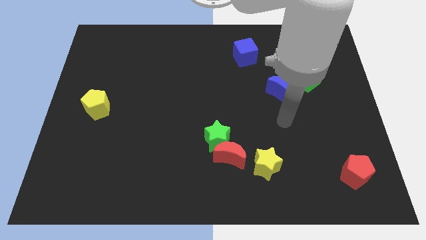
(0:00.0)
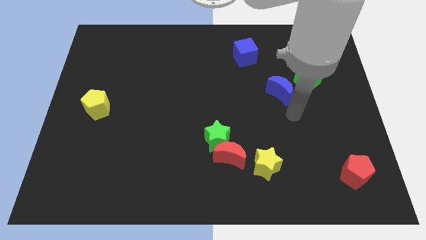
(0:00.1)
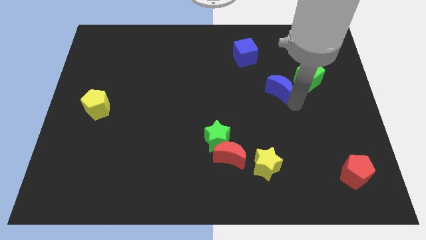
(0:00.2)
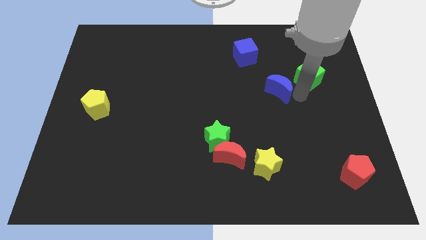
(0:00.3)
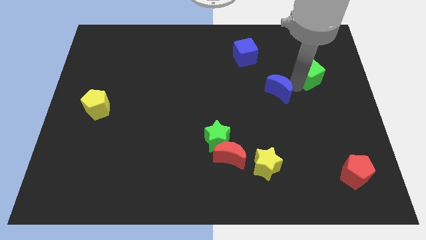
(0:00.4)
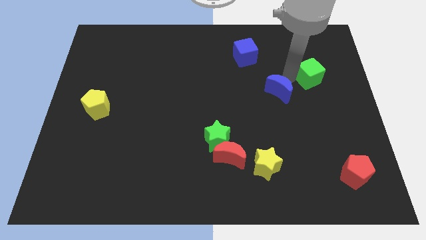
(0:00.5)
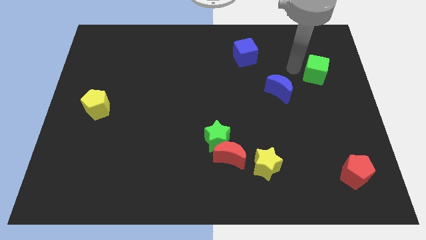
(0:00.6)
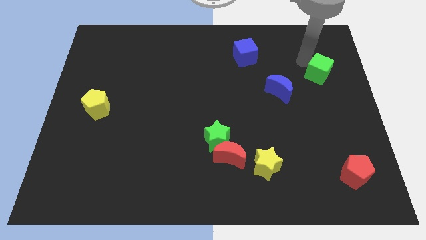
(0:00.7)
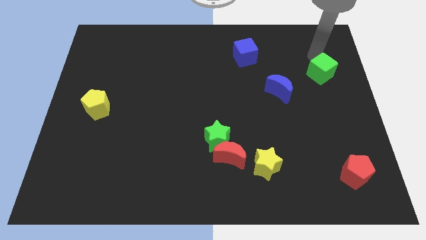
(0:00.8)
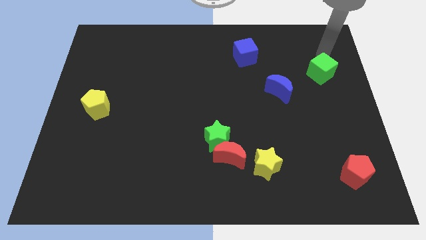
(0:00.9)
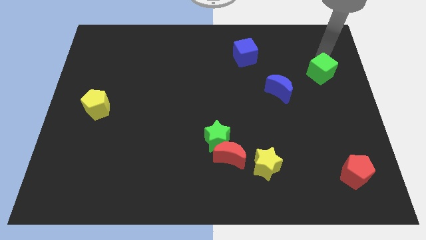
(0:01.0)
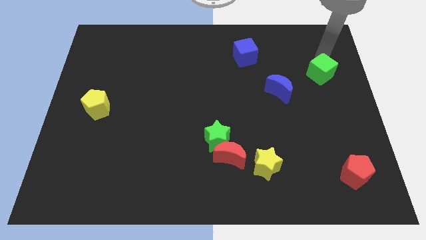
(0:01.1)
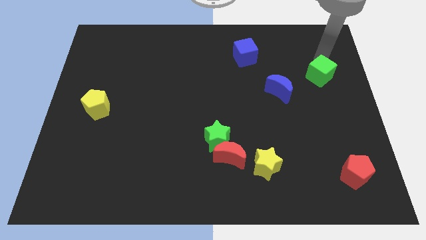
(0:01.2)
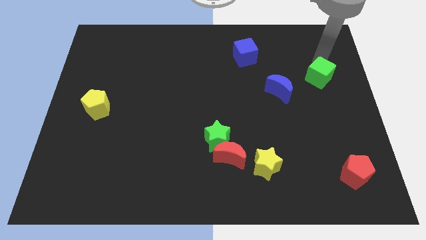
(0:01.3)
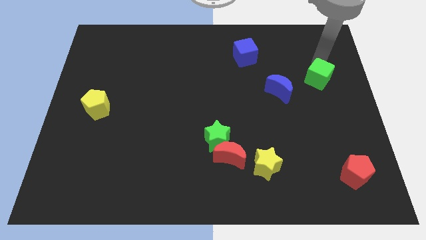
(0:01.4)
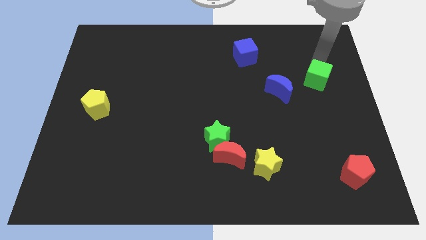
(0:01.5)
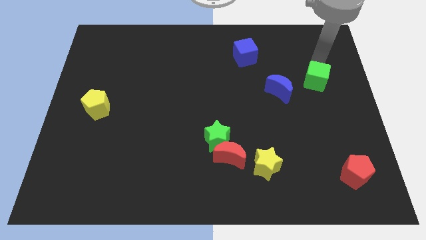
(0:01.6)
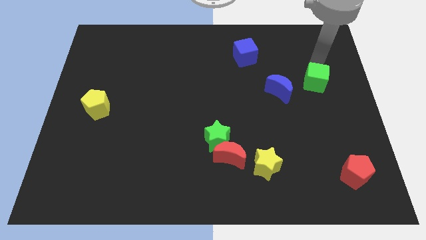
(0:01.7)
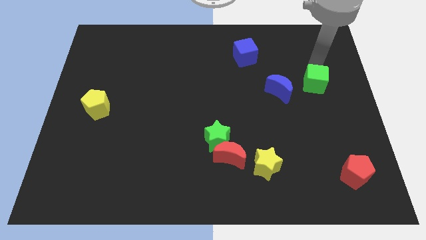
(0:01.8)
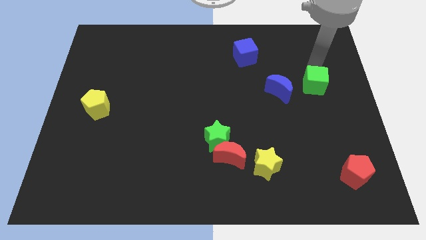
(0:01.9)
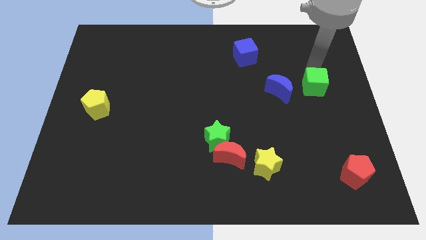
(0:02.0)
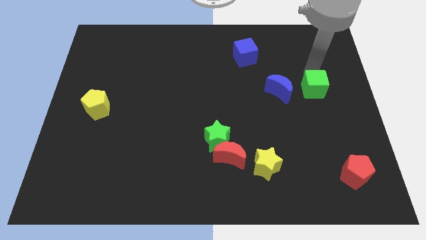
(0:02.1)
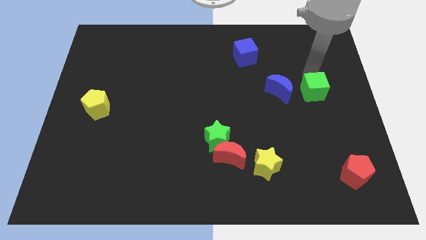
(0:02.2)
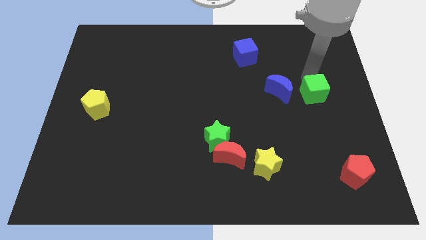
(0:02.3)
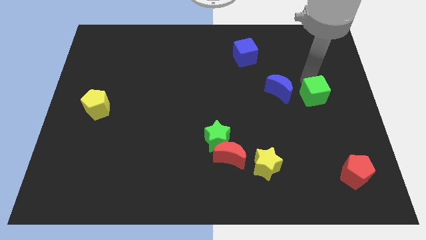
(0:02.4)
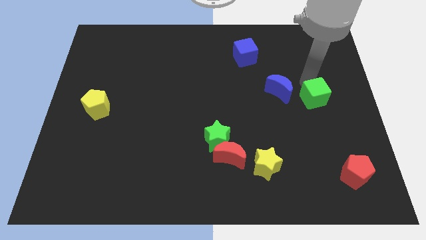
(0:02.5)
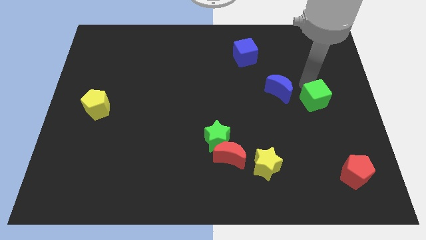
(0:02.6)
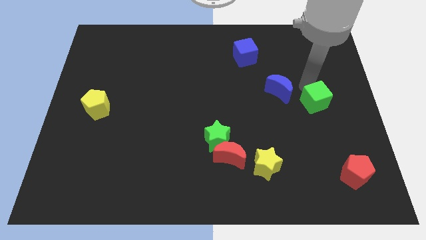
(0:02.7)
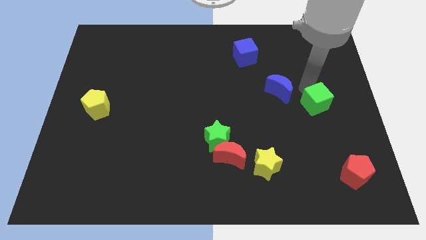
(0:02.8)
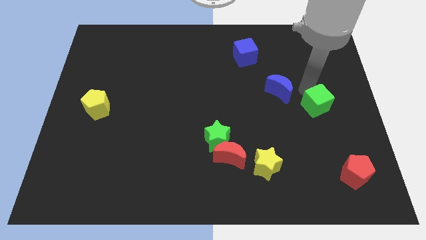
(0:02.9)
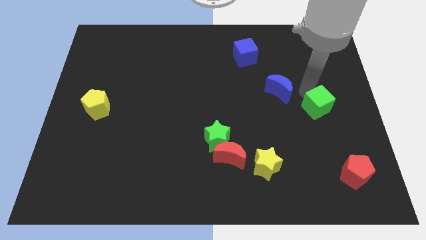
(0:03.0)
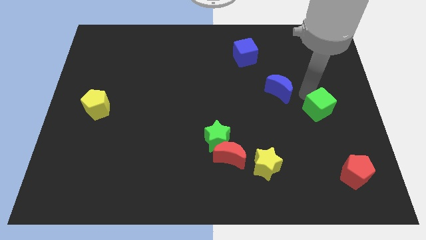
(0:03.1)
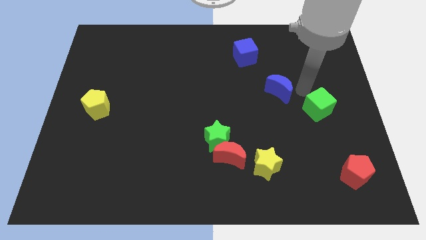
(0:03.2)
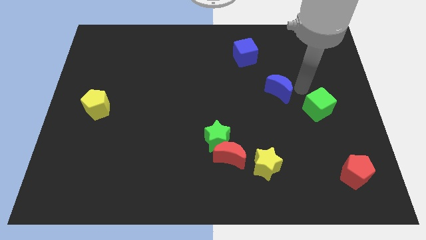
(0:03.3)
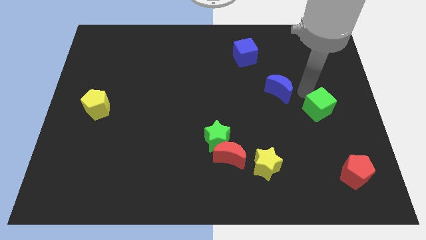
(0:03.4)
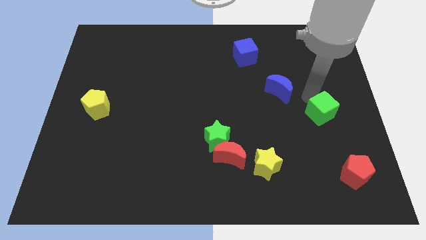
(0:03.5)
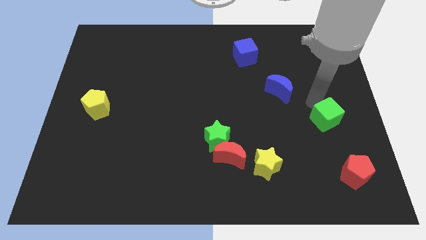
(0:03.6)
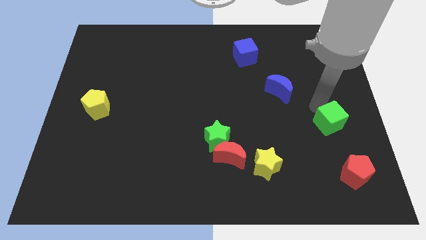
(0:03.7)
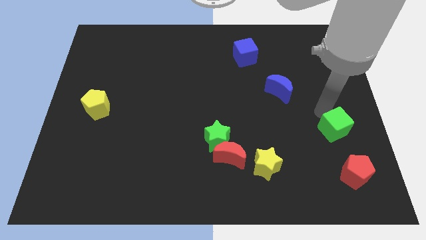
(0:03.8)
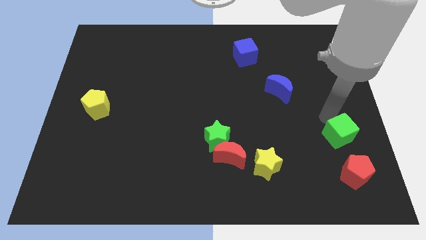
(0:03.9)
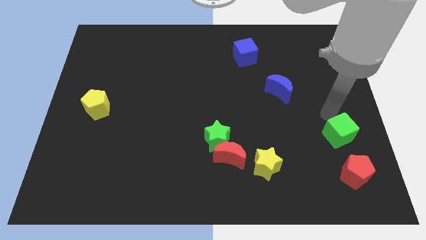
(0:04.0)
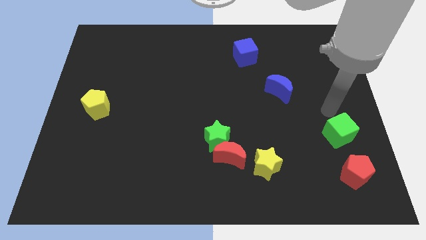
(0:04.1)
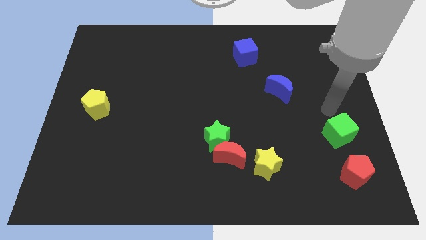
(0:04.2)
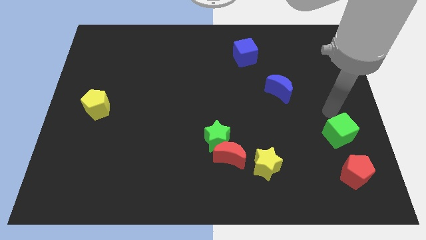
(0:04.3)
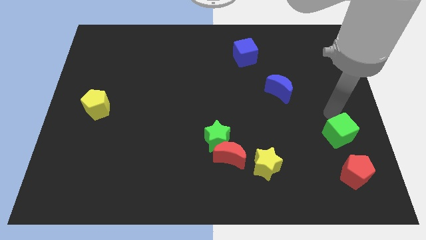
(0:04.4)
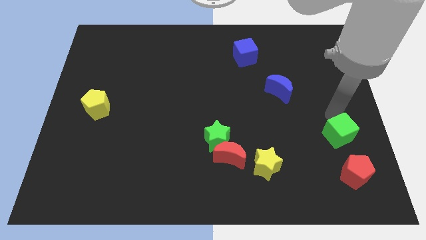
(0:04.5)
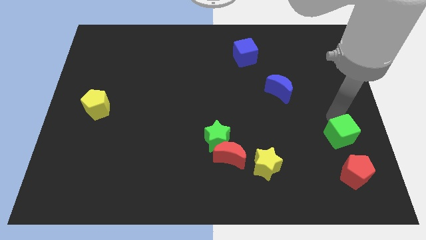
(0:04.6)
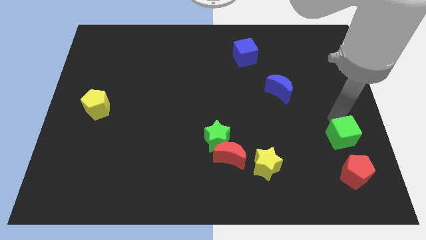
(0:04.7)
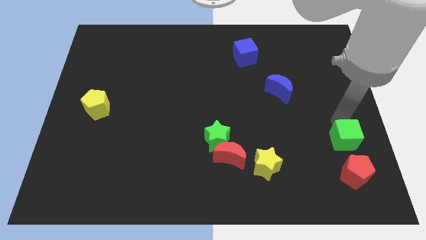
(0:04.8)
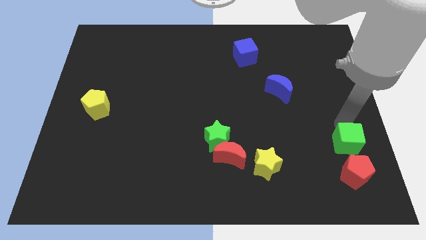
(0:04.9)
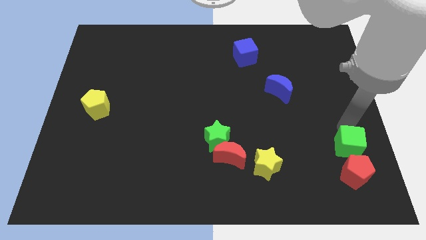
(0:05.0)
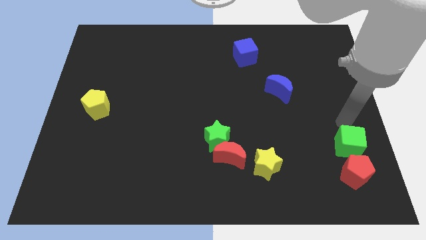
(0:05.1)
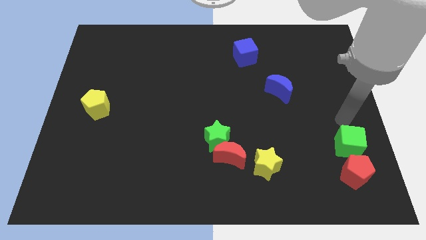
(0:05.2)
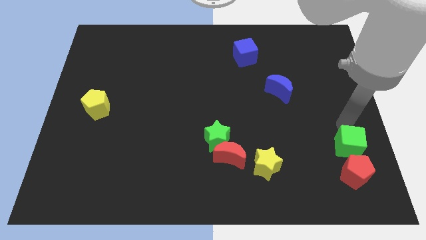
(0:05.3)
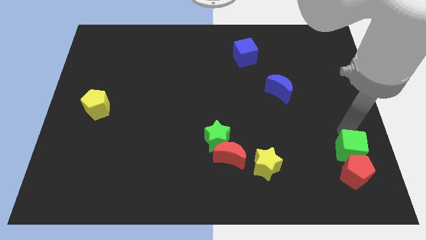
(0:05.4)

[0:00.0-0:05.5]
move the green cube close to the red pentagon

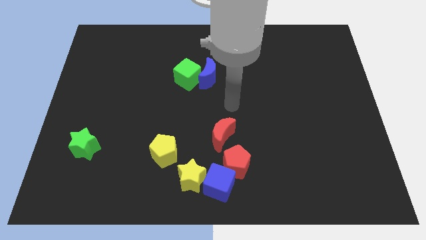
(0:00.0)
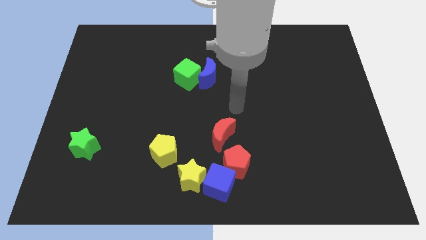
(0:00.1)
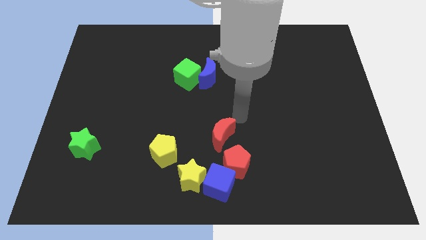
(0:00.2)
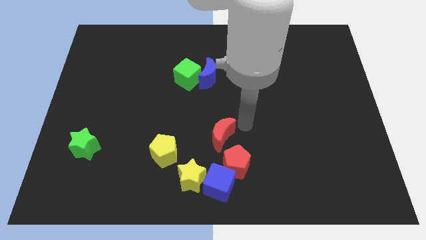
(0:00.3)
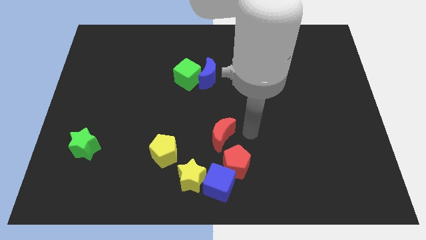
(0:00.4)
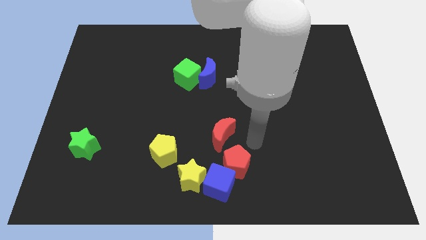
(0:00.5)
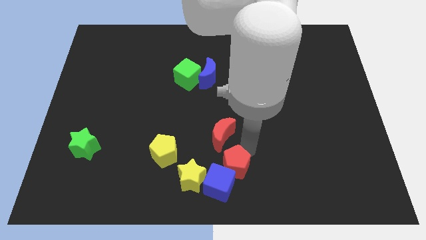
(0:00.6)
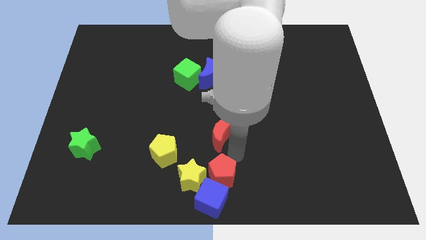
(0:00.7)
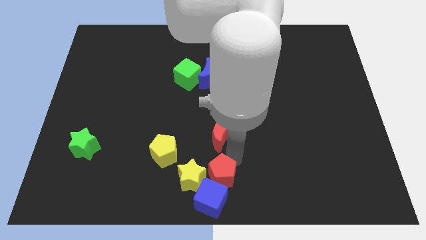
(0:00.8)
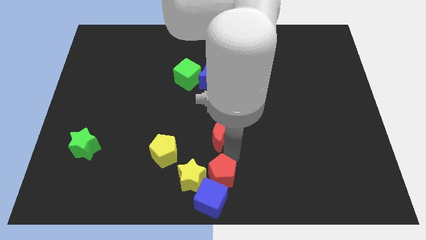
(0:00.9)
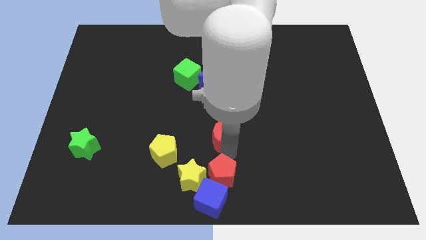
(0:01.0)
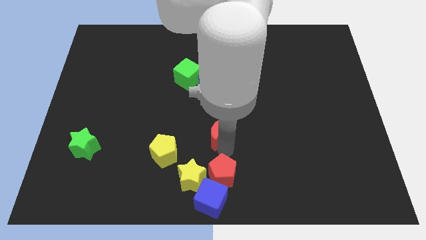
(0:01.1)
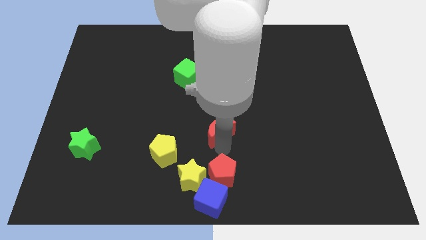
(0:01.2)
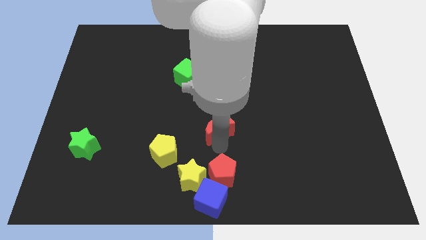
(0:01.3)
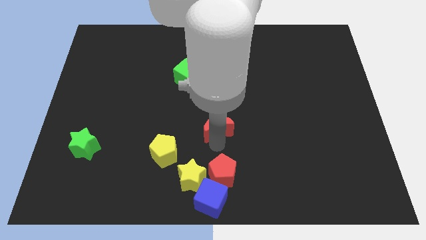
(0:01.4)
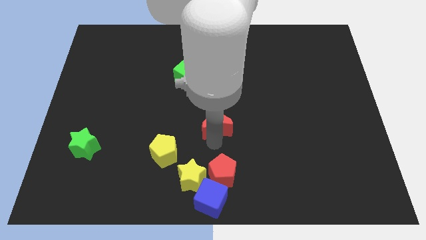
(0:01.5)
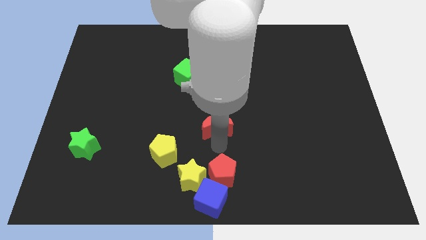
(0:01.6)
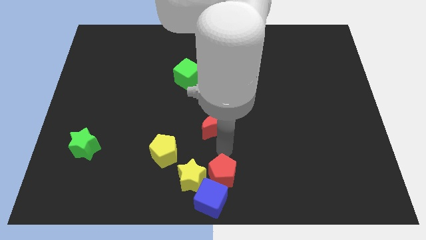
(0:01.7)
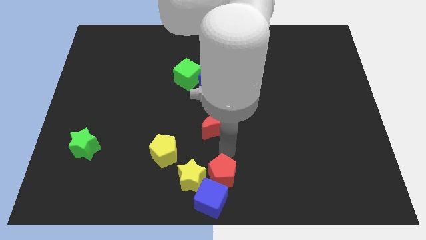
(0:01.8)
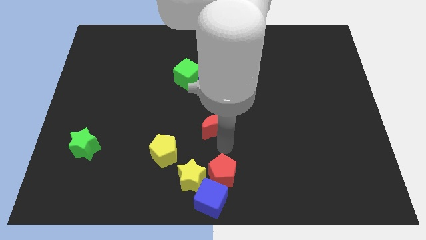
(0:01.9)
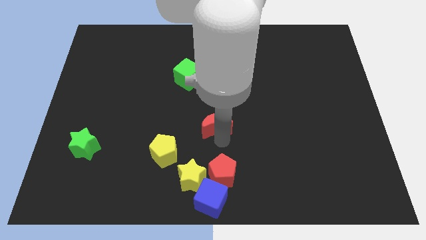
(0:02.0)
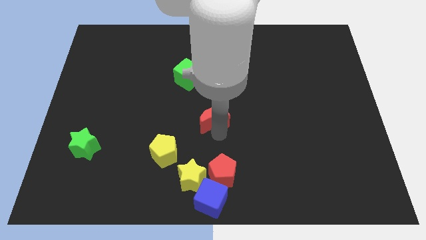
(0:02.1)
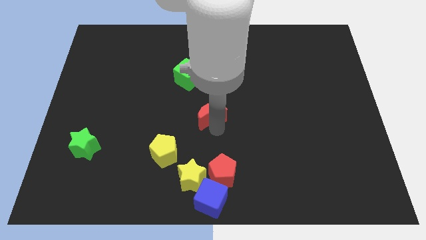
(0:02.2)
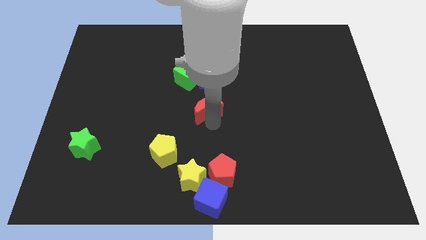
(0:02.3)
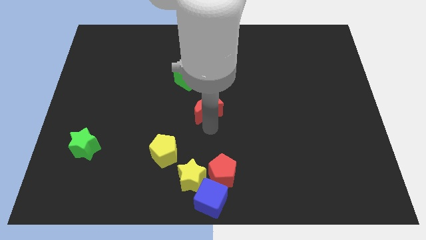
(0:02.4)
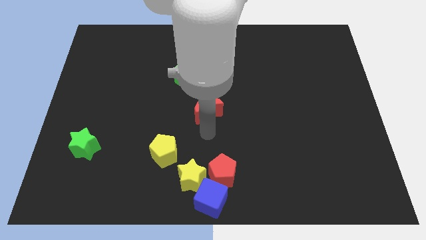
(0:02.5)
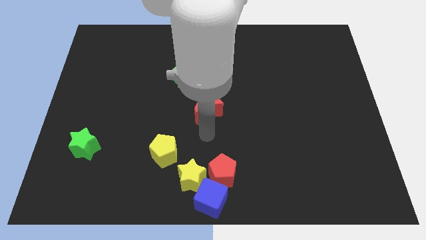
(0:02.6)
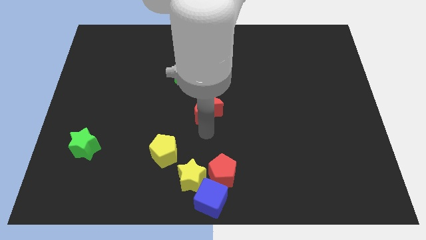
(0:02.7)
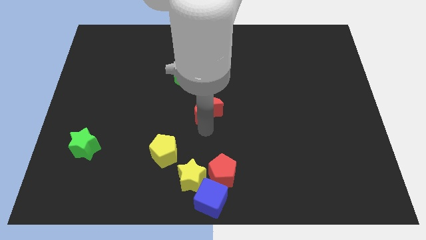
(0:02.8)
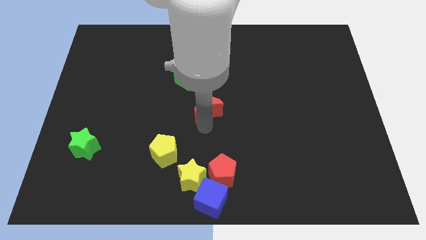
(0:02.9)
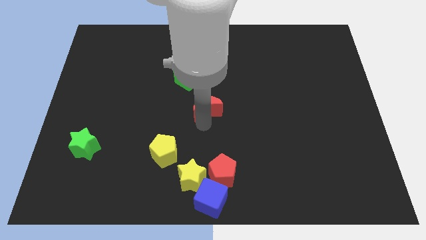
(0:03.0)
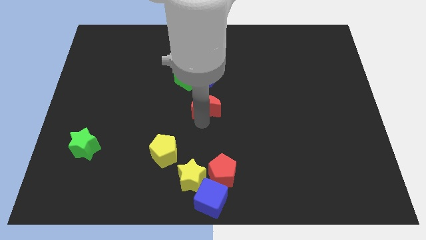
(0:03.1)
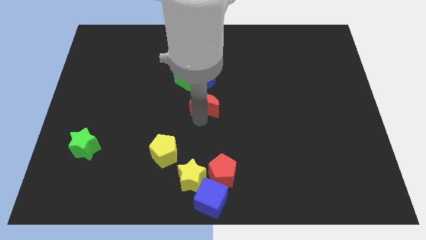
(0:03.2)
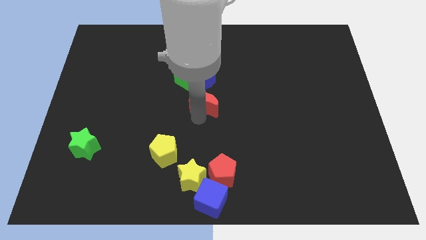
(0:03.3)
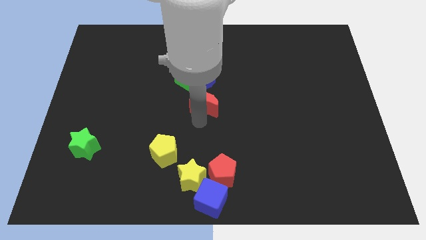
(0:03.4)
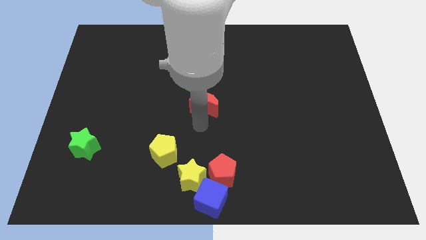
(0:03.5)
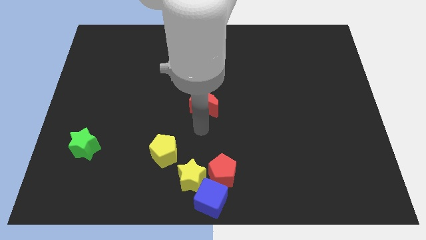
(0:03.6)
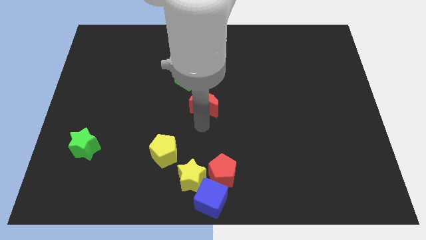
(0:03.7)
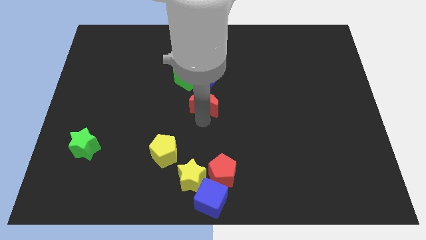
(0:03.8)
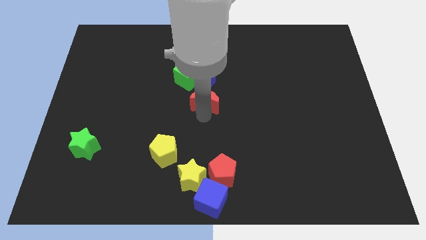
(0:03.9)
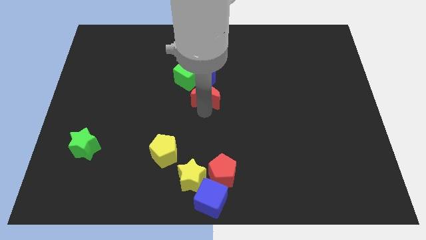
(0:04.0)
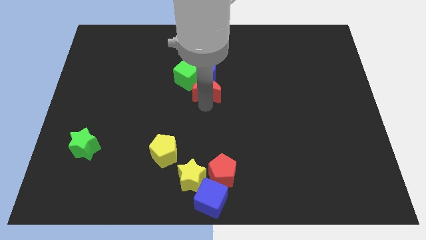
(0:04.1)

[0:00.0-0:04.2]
slide the red moon close to the blue moon
